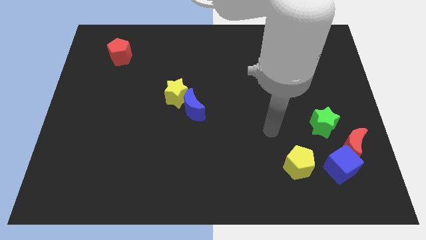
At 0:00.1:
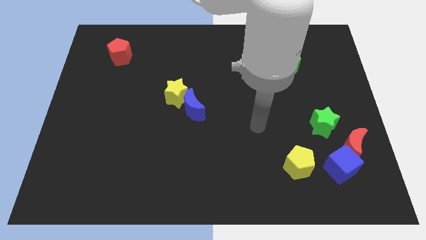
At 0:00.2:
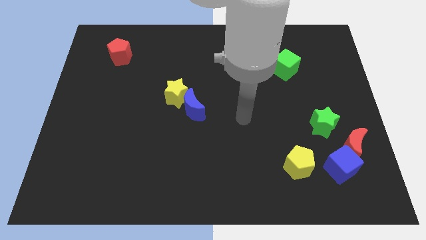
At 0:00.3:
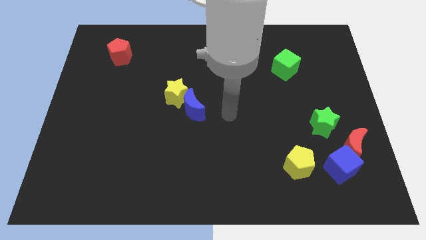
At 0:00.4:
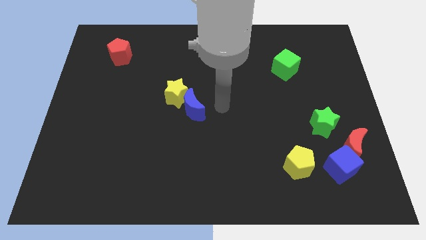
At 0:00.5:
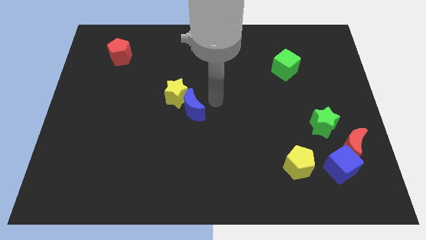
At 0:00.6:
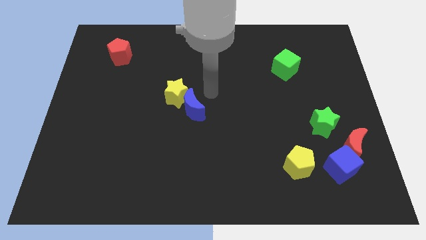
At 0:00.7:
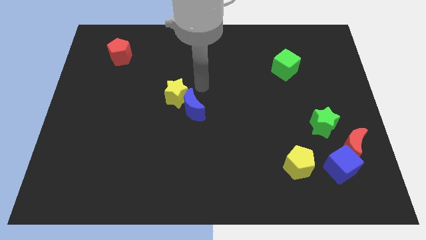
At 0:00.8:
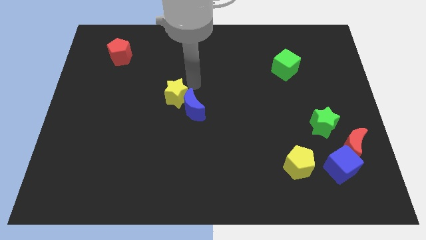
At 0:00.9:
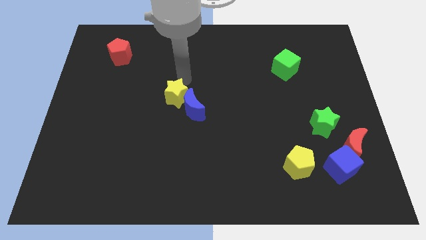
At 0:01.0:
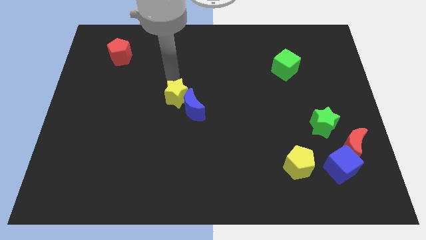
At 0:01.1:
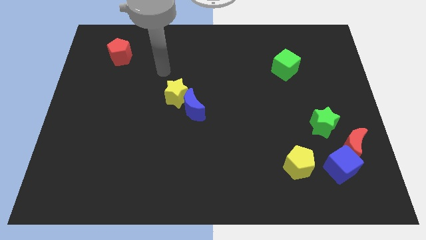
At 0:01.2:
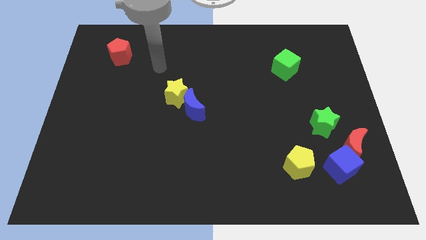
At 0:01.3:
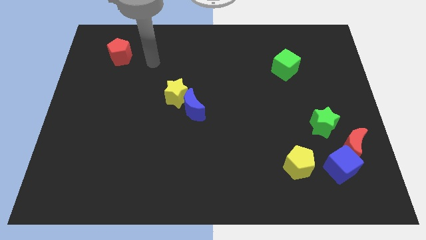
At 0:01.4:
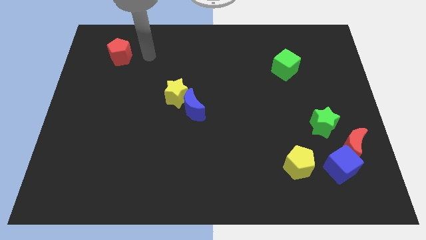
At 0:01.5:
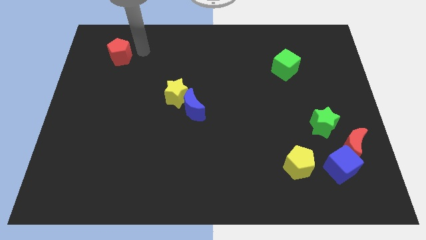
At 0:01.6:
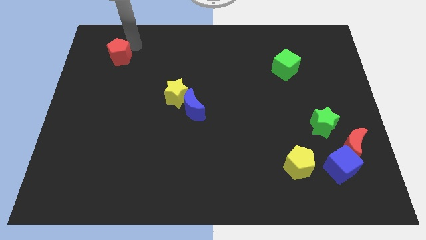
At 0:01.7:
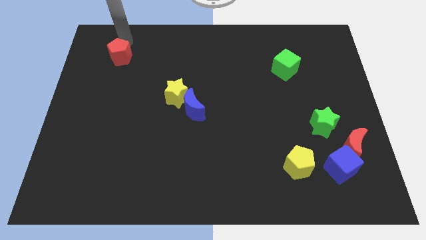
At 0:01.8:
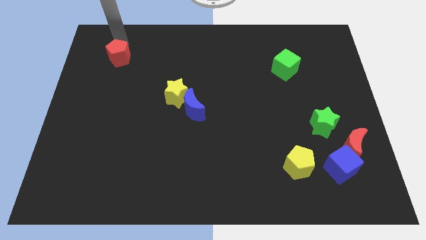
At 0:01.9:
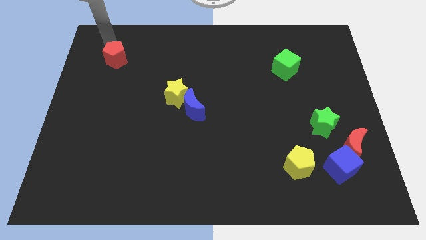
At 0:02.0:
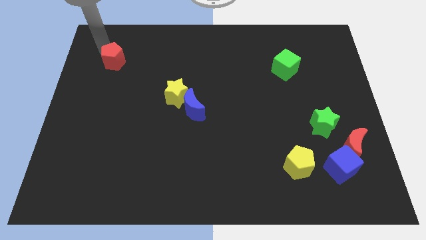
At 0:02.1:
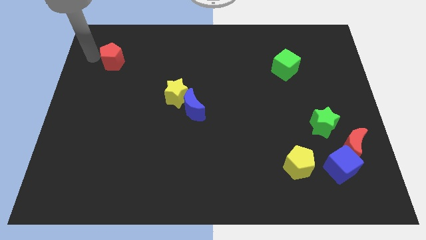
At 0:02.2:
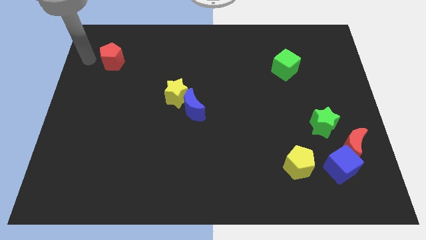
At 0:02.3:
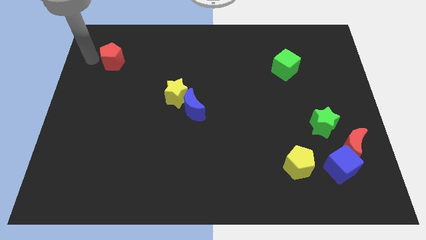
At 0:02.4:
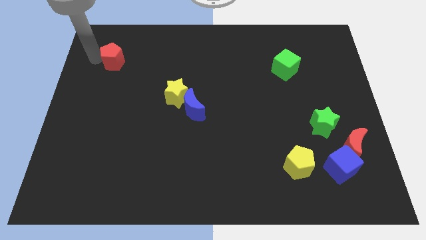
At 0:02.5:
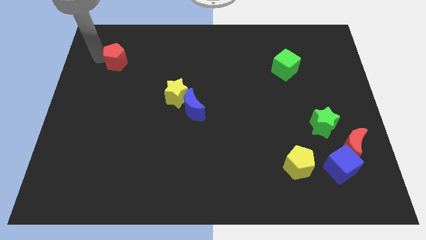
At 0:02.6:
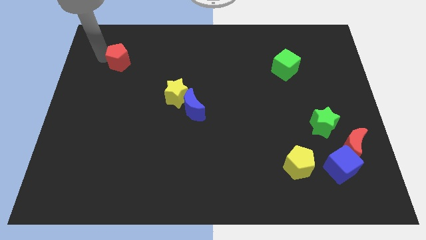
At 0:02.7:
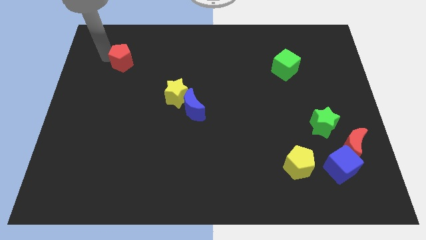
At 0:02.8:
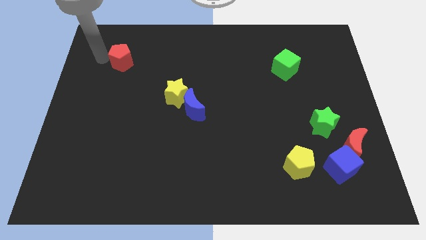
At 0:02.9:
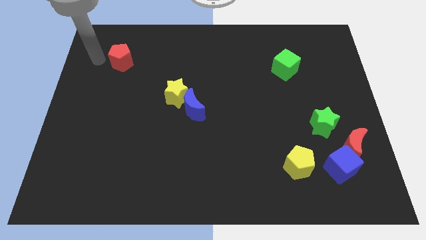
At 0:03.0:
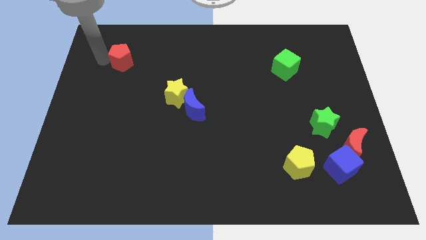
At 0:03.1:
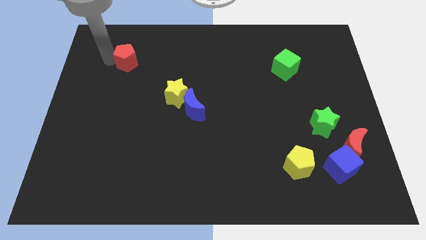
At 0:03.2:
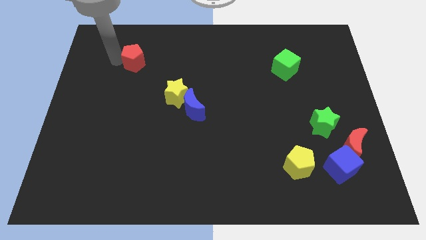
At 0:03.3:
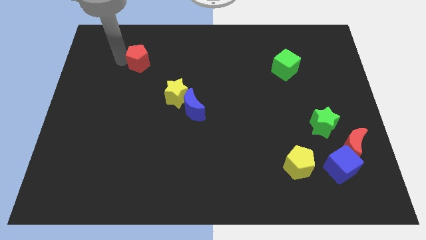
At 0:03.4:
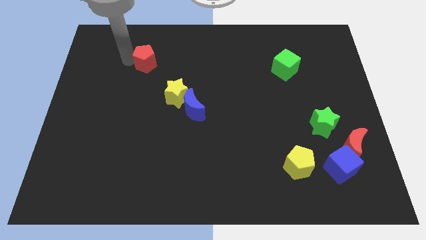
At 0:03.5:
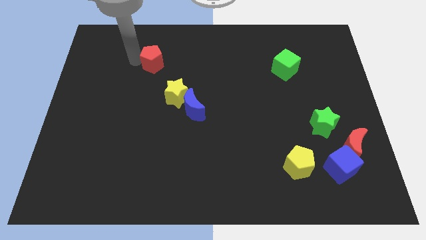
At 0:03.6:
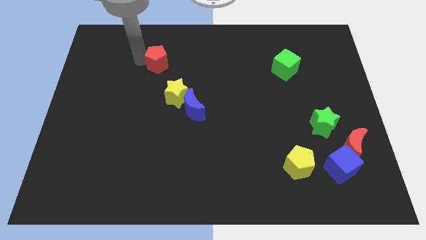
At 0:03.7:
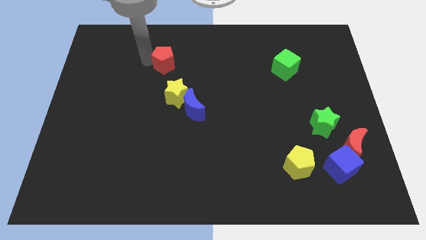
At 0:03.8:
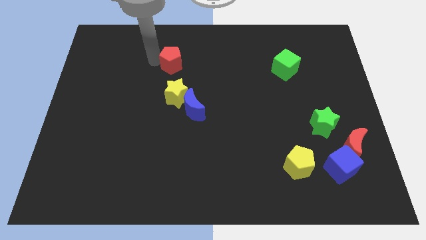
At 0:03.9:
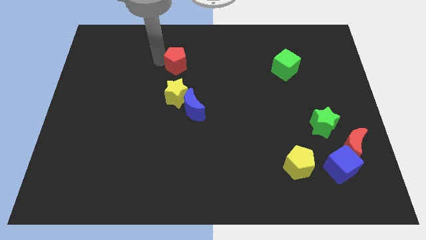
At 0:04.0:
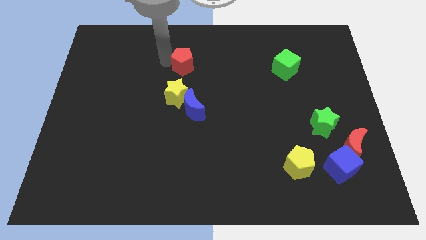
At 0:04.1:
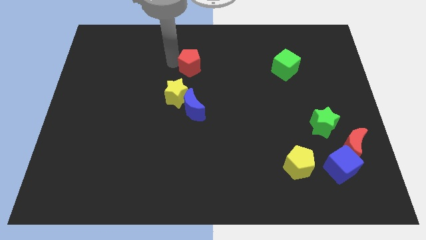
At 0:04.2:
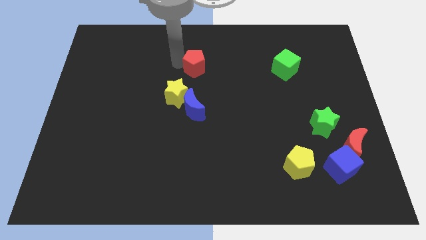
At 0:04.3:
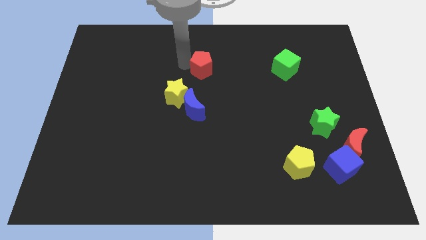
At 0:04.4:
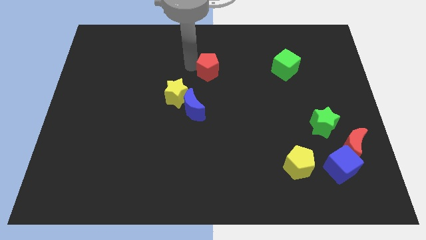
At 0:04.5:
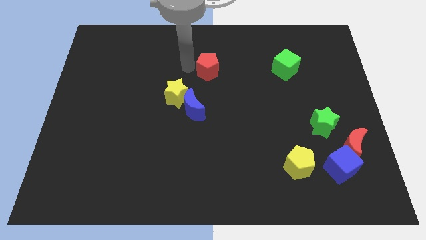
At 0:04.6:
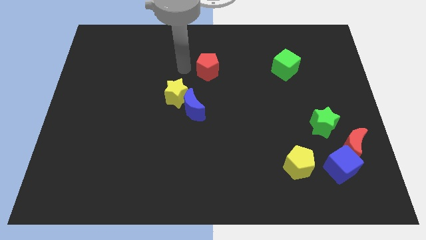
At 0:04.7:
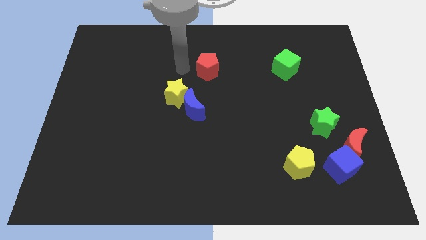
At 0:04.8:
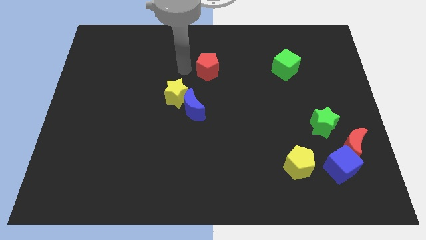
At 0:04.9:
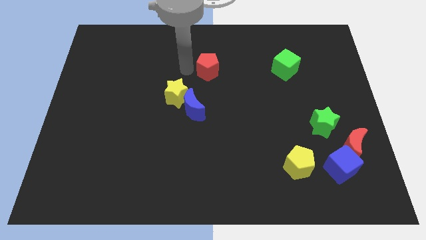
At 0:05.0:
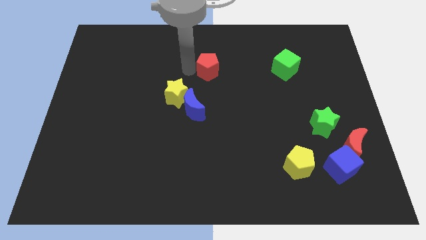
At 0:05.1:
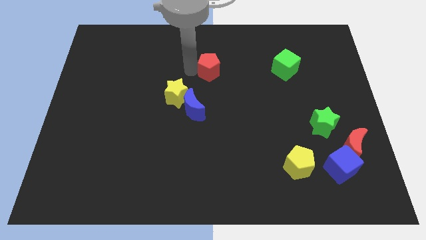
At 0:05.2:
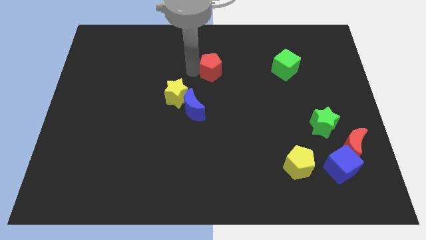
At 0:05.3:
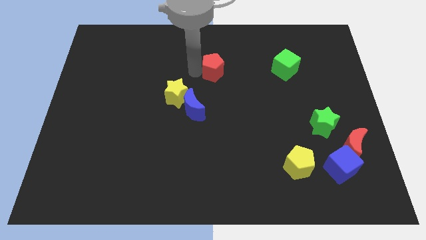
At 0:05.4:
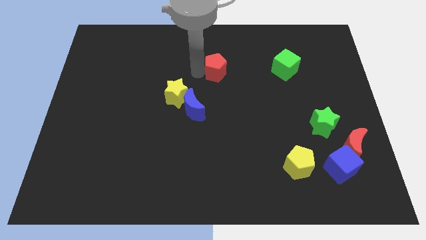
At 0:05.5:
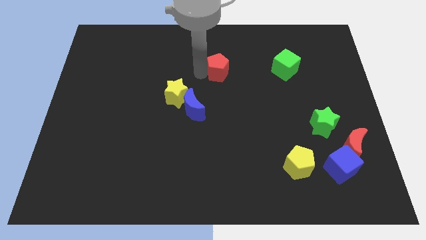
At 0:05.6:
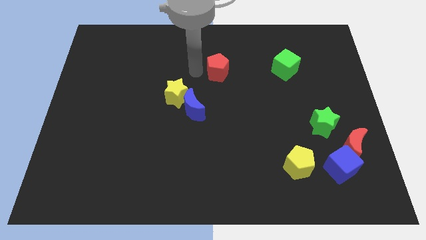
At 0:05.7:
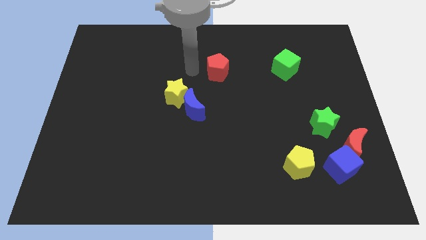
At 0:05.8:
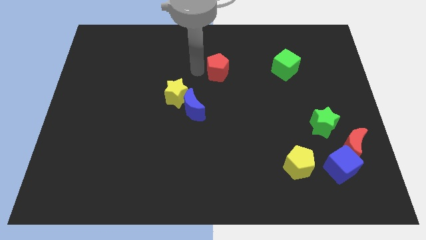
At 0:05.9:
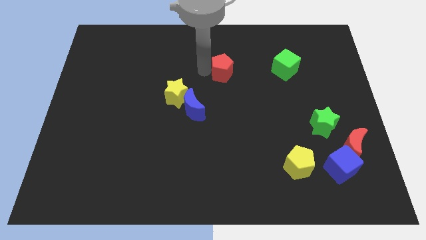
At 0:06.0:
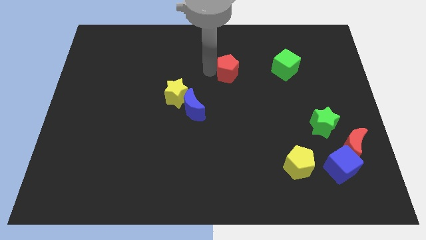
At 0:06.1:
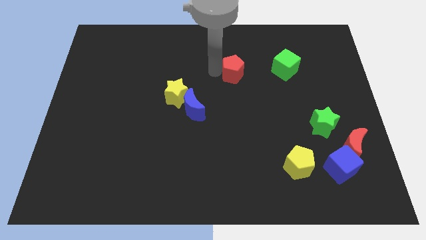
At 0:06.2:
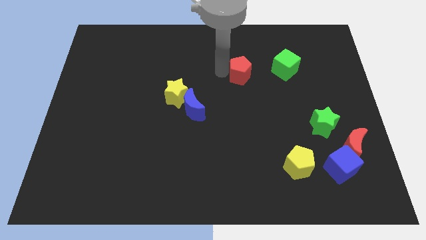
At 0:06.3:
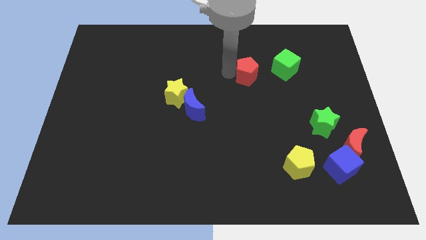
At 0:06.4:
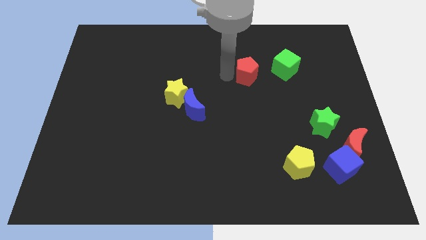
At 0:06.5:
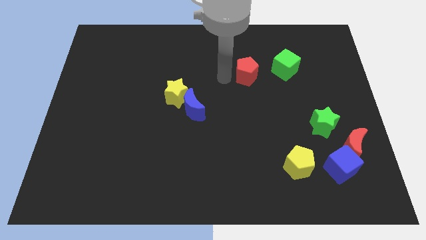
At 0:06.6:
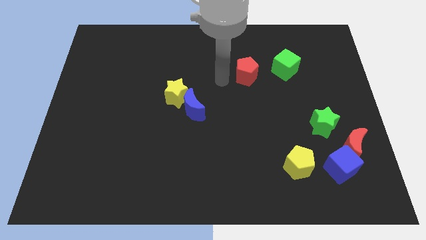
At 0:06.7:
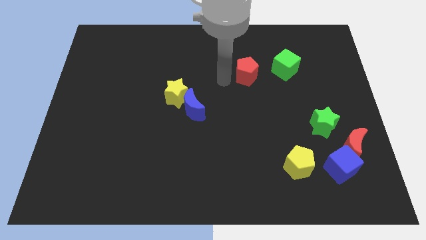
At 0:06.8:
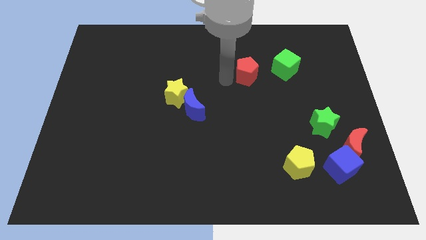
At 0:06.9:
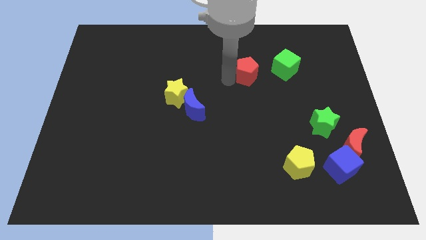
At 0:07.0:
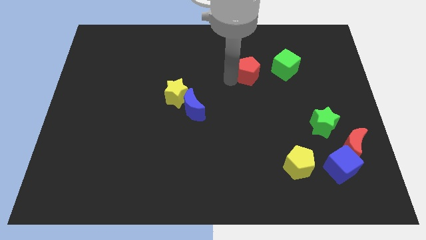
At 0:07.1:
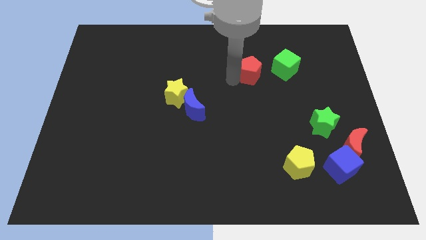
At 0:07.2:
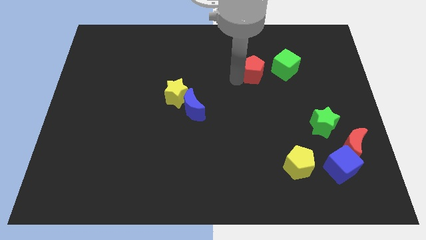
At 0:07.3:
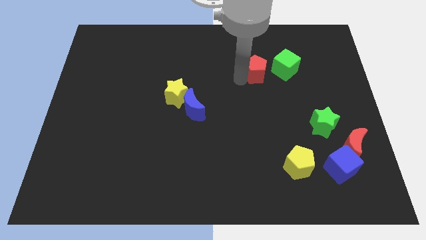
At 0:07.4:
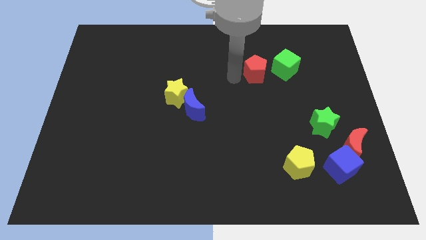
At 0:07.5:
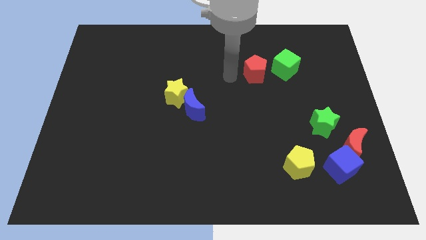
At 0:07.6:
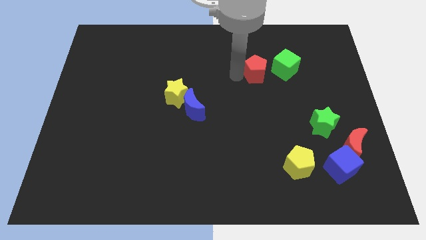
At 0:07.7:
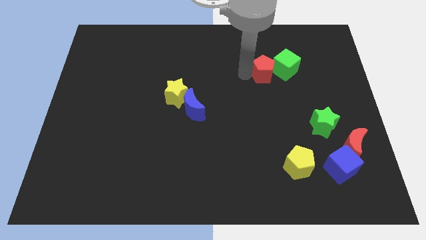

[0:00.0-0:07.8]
put the red pentagon towards the green cube
